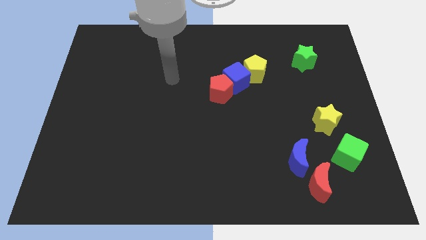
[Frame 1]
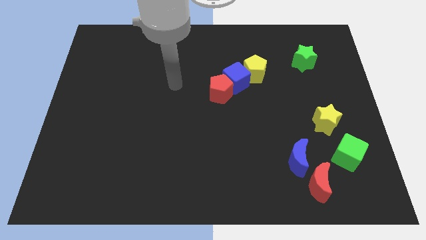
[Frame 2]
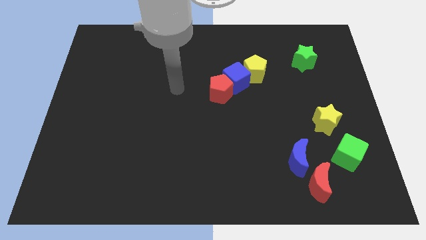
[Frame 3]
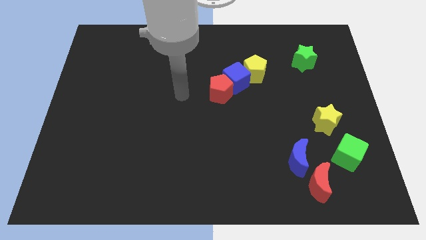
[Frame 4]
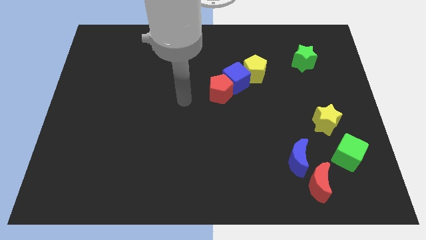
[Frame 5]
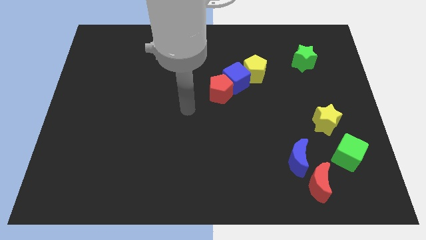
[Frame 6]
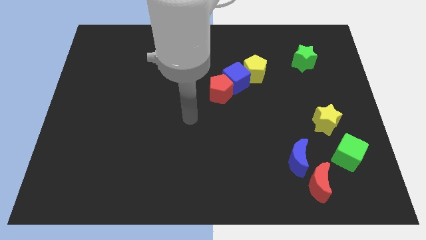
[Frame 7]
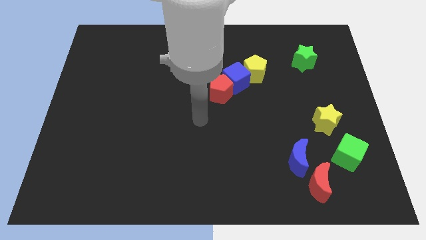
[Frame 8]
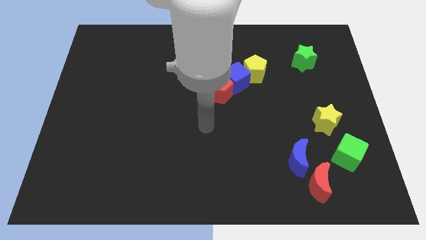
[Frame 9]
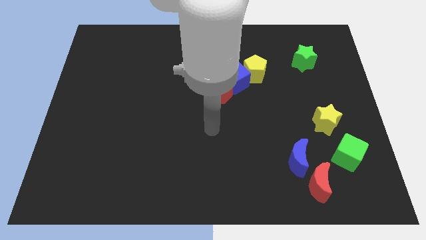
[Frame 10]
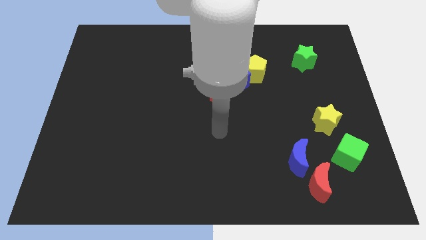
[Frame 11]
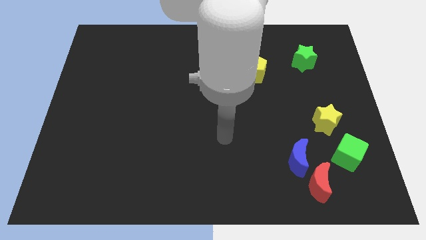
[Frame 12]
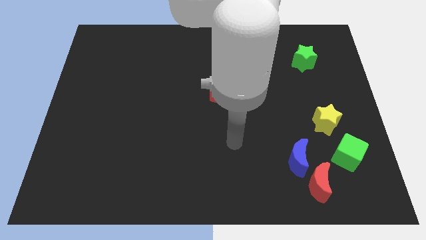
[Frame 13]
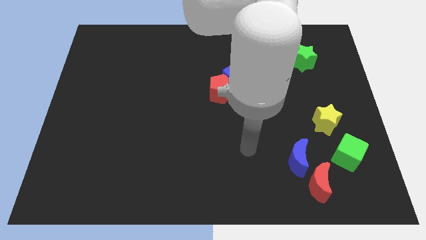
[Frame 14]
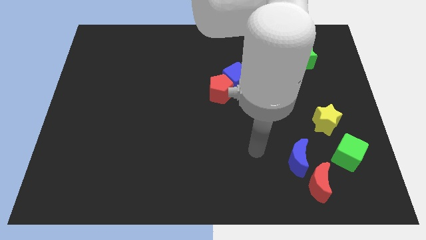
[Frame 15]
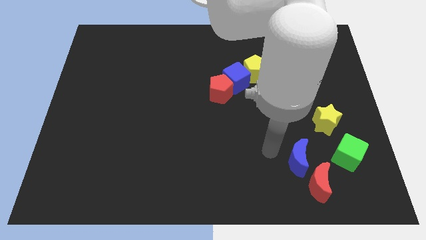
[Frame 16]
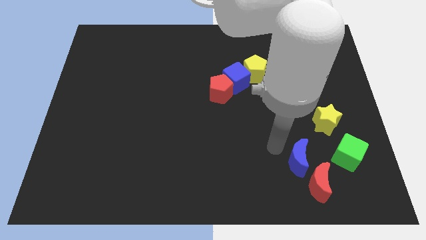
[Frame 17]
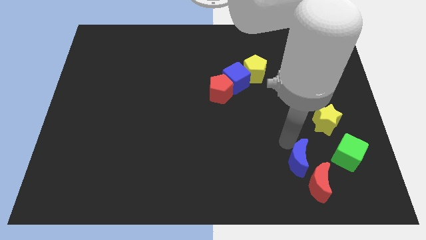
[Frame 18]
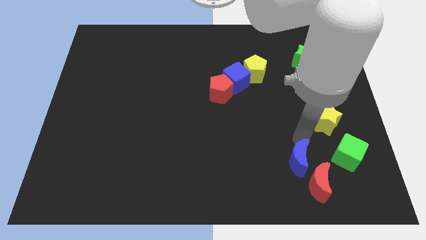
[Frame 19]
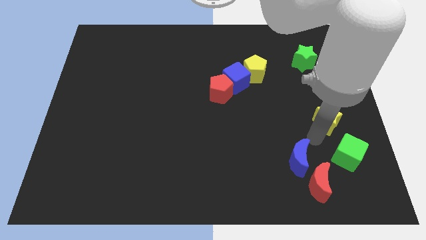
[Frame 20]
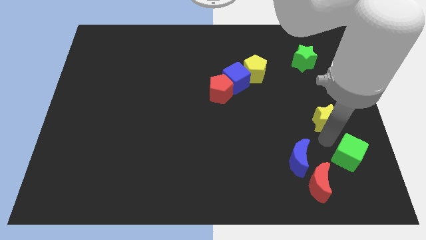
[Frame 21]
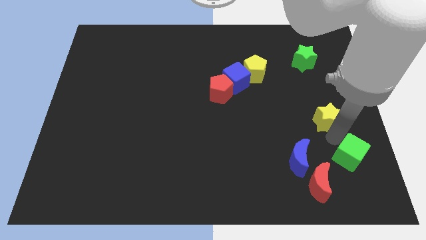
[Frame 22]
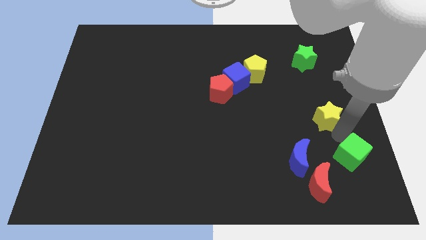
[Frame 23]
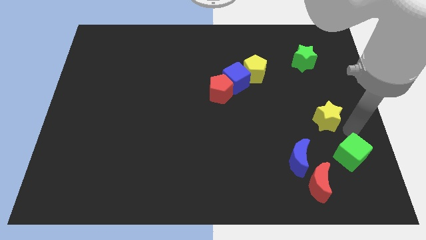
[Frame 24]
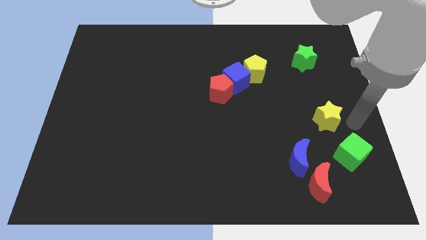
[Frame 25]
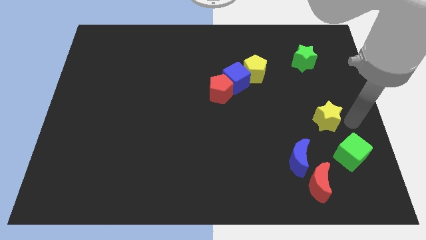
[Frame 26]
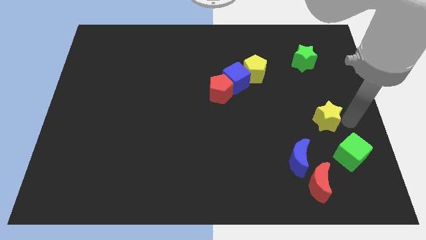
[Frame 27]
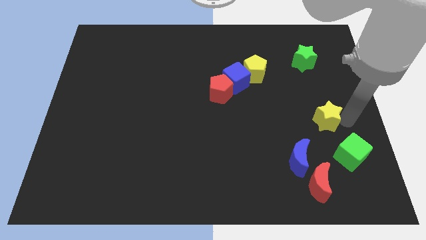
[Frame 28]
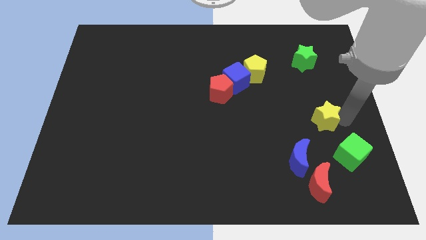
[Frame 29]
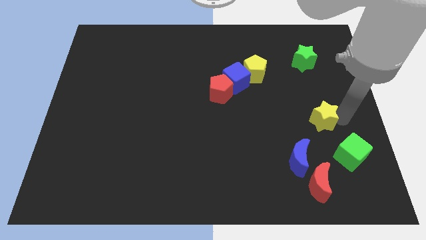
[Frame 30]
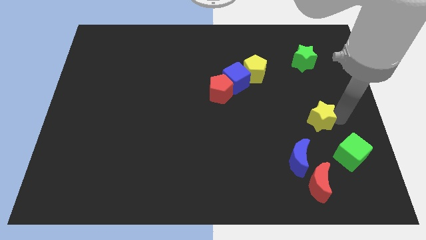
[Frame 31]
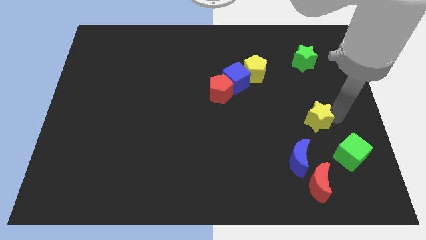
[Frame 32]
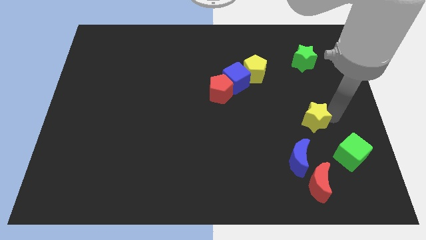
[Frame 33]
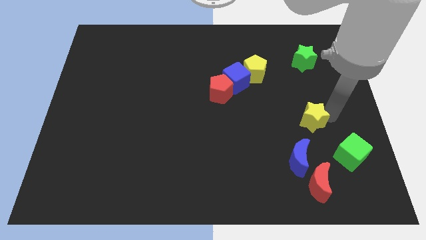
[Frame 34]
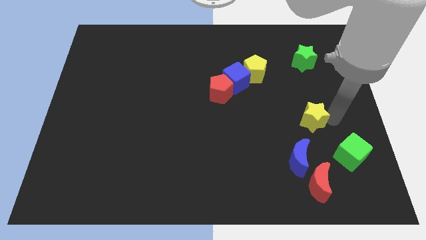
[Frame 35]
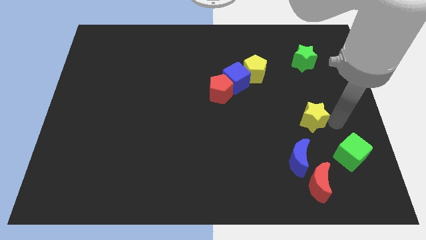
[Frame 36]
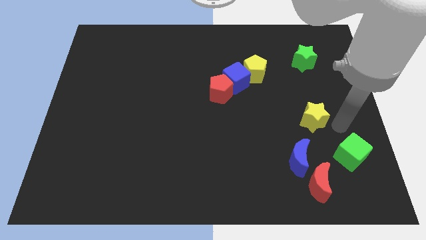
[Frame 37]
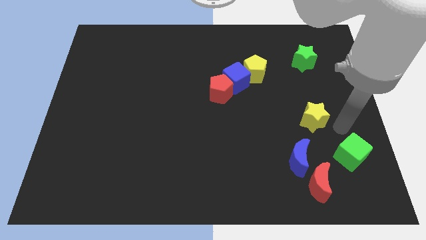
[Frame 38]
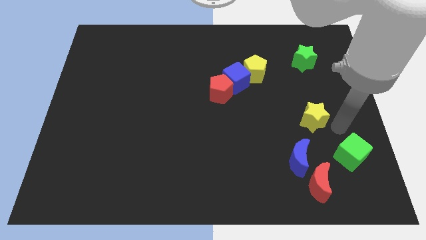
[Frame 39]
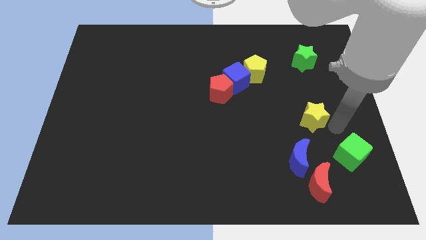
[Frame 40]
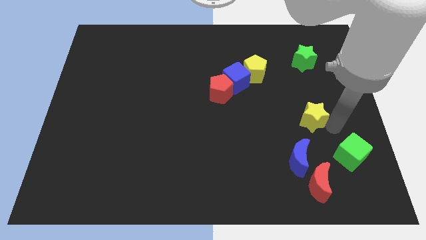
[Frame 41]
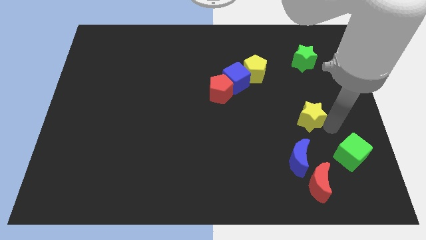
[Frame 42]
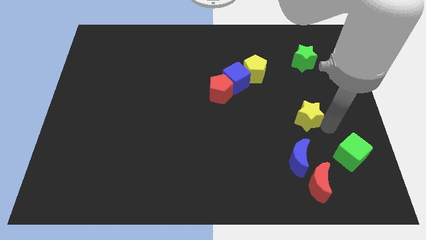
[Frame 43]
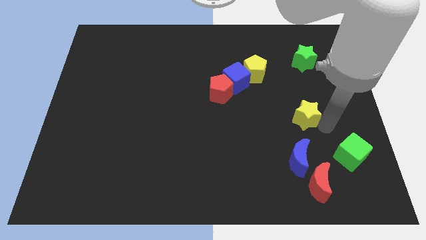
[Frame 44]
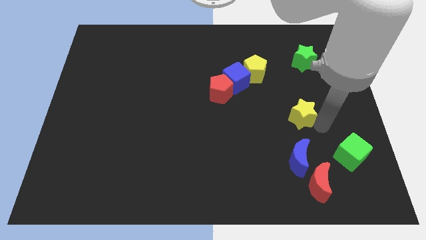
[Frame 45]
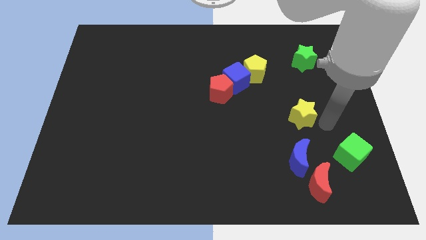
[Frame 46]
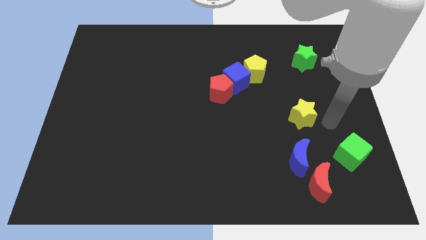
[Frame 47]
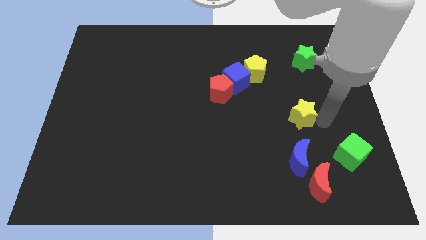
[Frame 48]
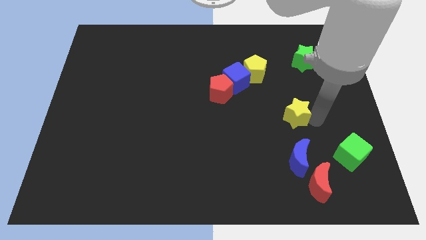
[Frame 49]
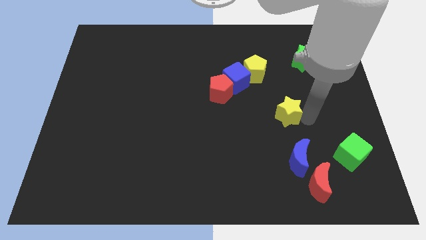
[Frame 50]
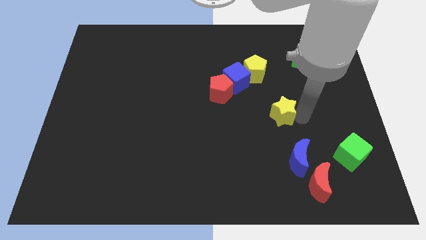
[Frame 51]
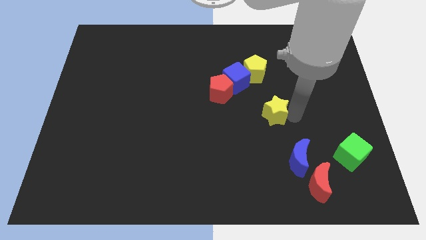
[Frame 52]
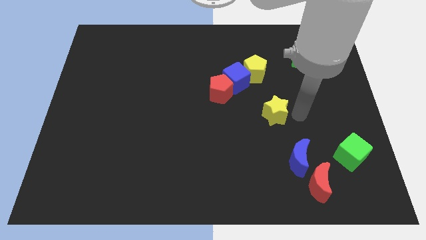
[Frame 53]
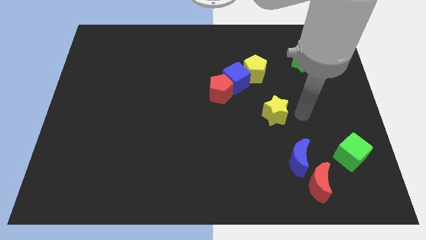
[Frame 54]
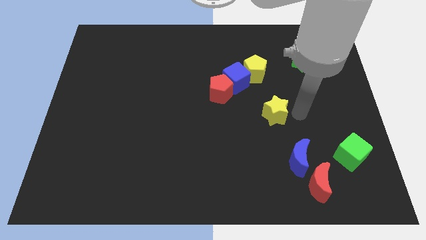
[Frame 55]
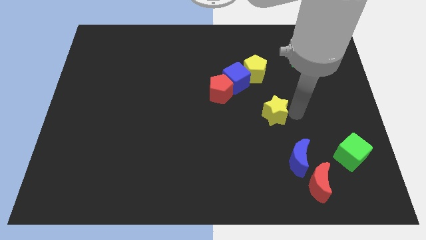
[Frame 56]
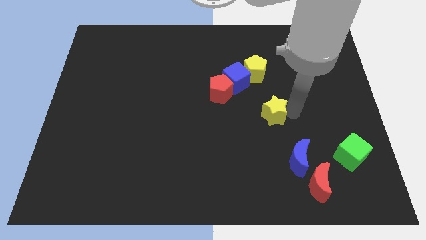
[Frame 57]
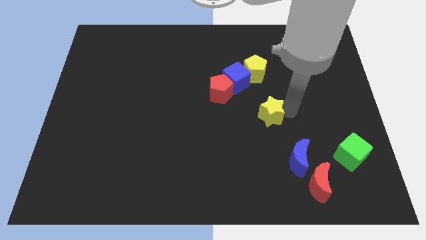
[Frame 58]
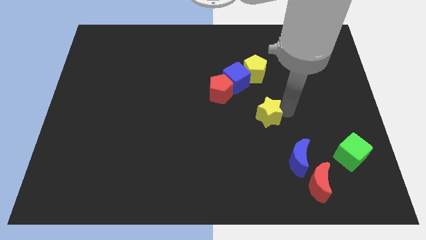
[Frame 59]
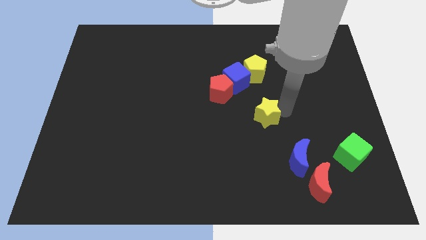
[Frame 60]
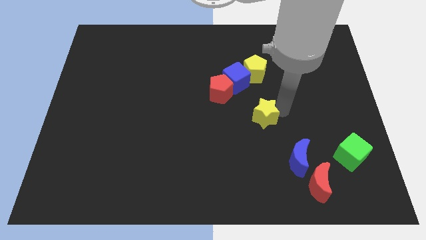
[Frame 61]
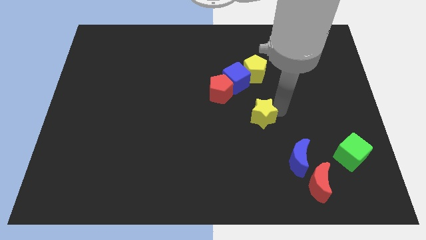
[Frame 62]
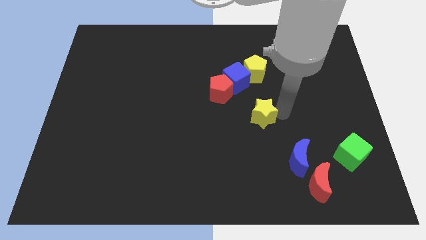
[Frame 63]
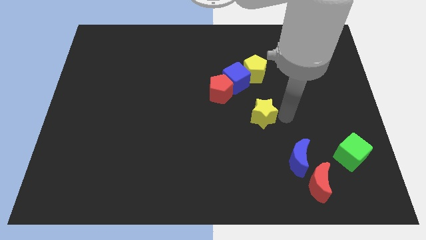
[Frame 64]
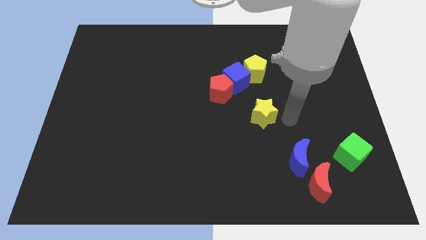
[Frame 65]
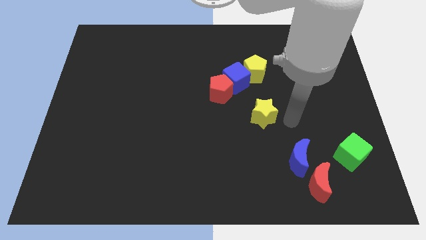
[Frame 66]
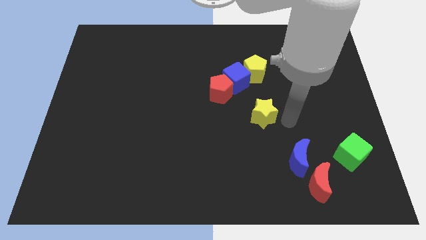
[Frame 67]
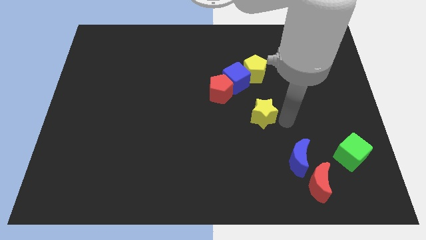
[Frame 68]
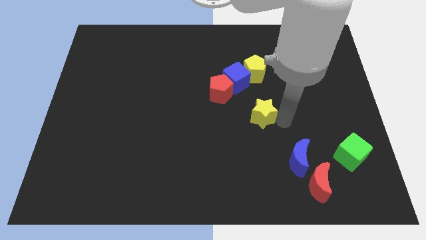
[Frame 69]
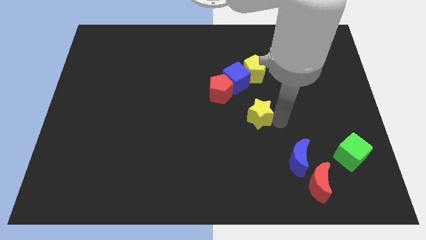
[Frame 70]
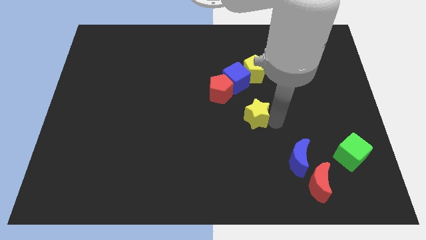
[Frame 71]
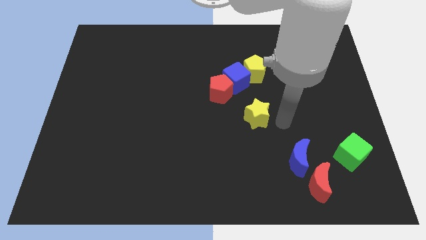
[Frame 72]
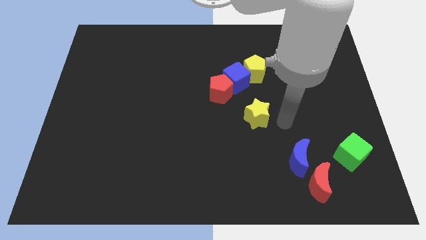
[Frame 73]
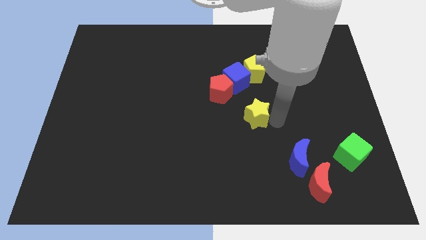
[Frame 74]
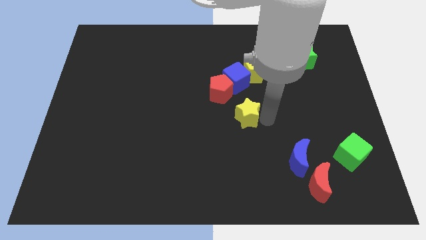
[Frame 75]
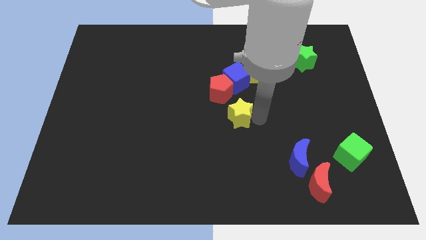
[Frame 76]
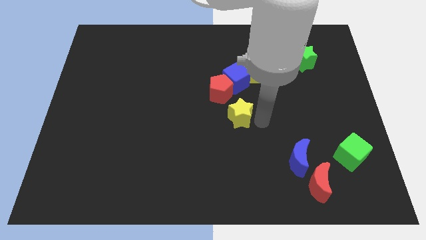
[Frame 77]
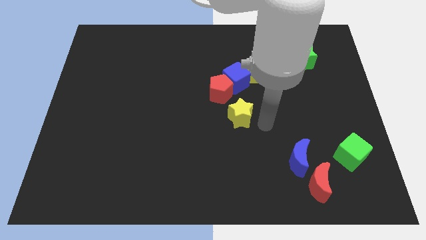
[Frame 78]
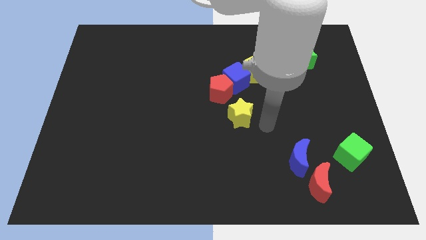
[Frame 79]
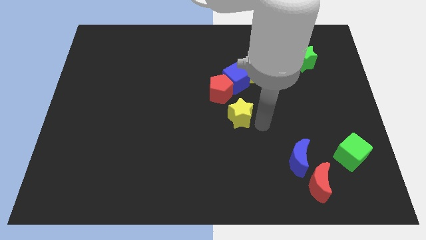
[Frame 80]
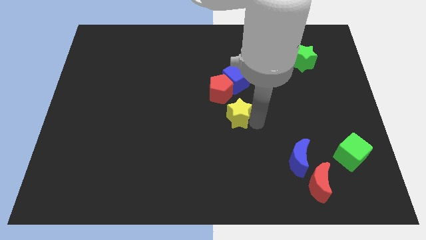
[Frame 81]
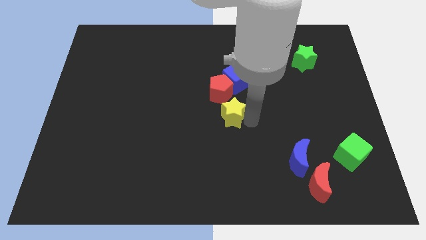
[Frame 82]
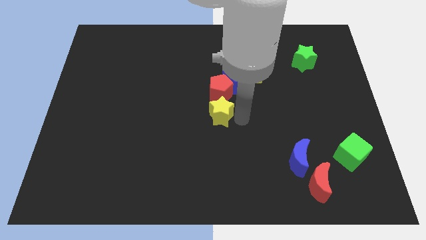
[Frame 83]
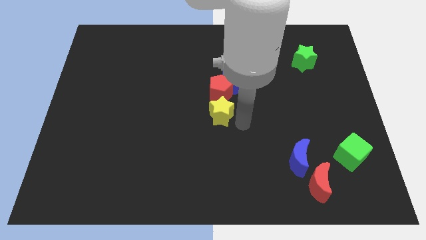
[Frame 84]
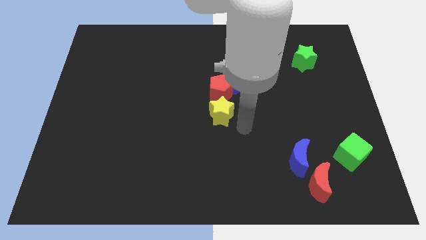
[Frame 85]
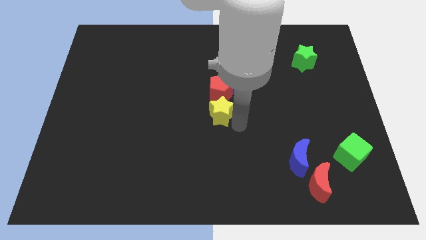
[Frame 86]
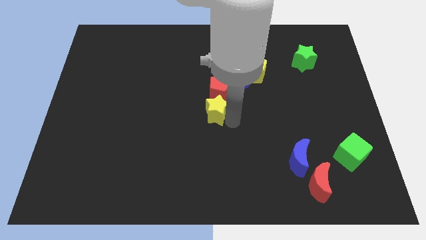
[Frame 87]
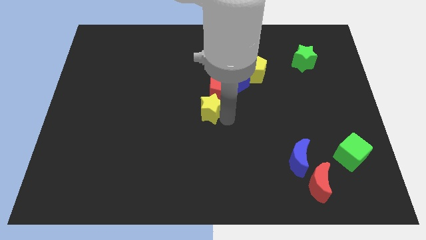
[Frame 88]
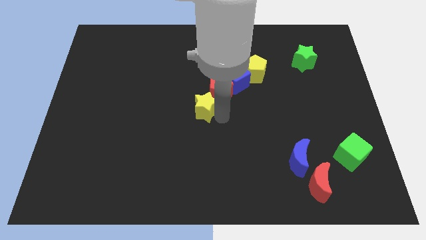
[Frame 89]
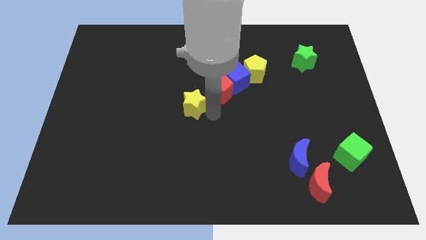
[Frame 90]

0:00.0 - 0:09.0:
slide the yellow star to the left of the red pentagon
